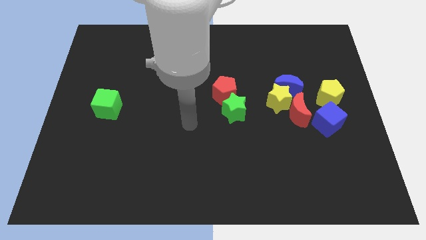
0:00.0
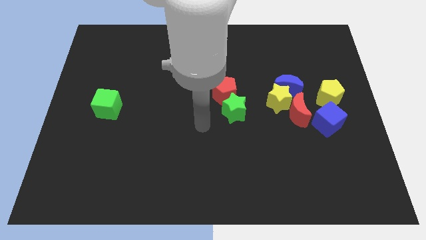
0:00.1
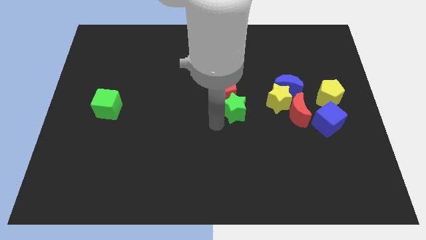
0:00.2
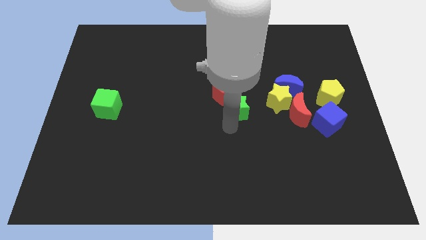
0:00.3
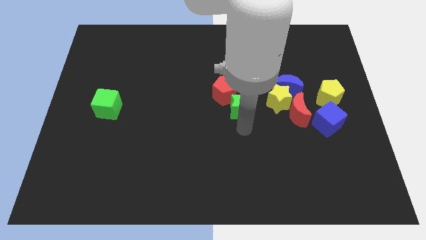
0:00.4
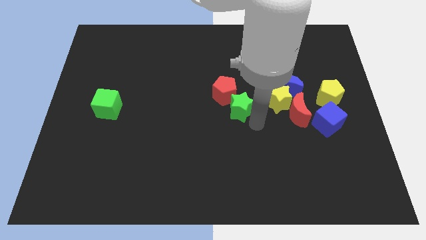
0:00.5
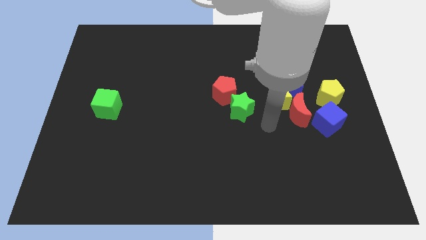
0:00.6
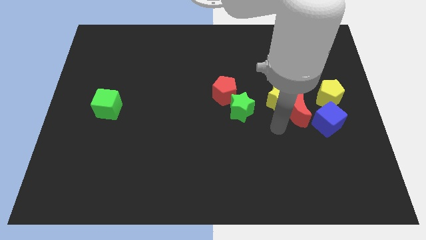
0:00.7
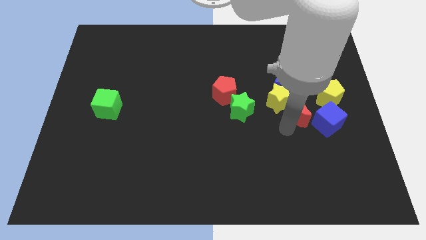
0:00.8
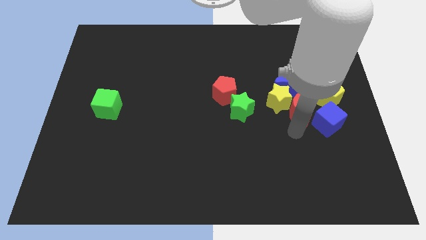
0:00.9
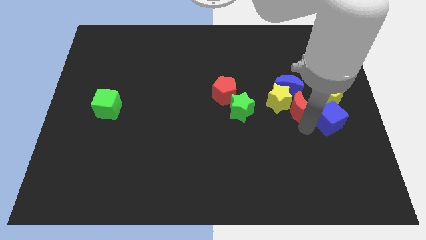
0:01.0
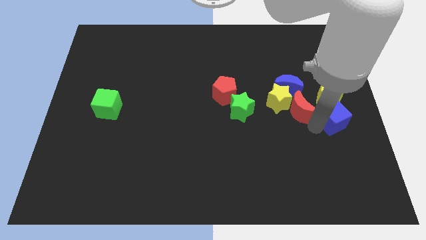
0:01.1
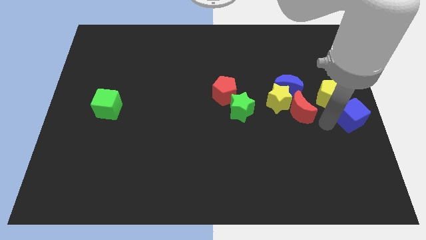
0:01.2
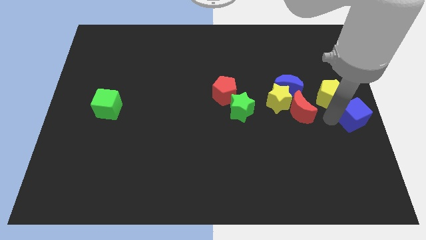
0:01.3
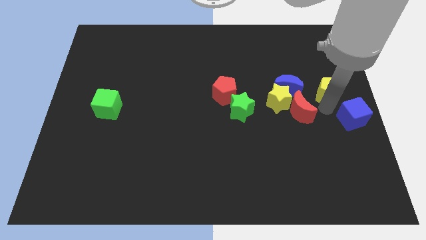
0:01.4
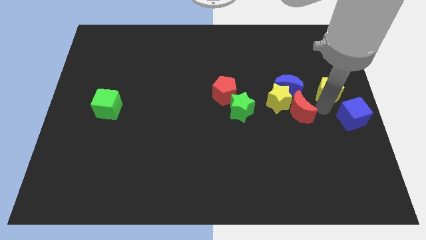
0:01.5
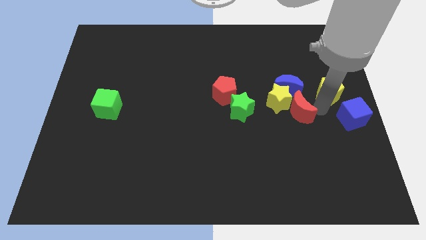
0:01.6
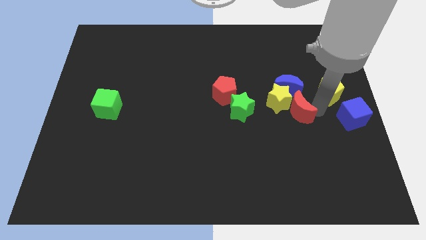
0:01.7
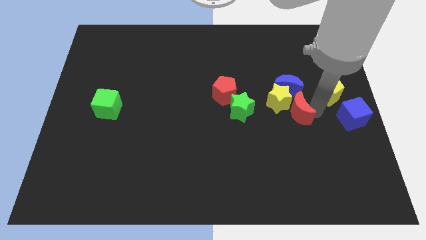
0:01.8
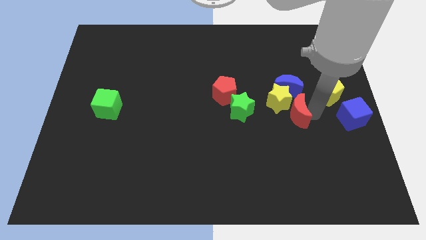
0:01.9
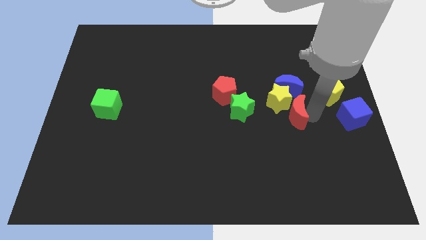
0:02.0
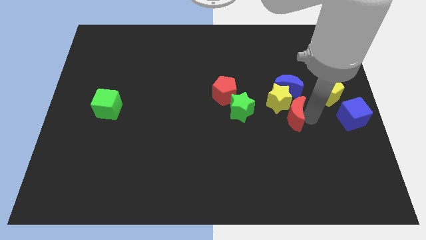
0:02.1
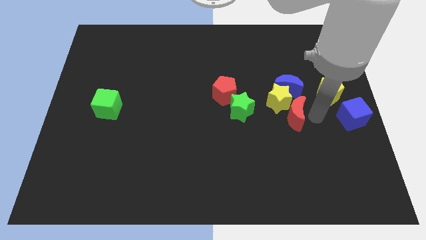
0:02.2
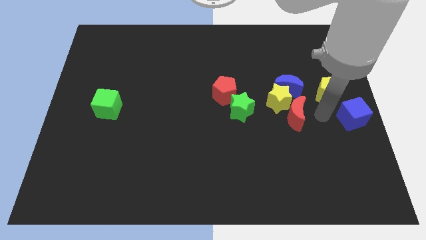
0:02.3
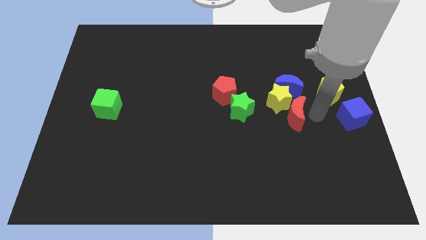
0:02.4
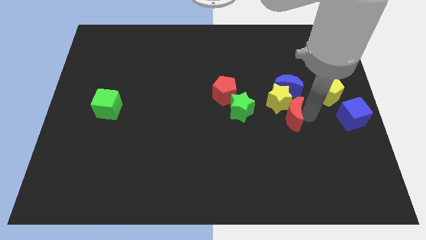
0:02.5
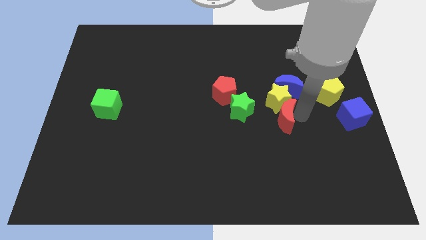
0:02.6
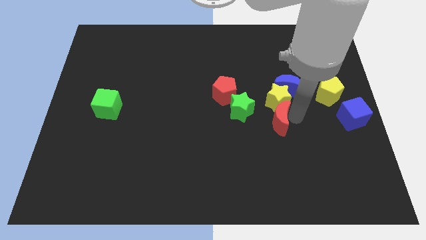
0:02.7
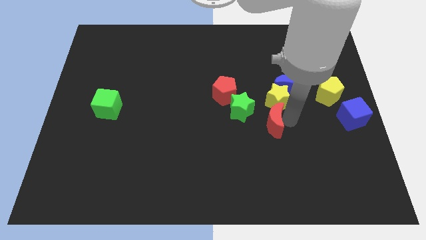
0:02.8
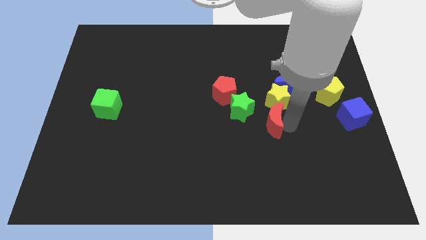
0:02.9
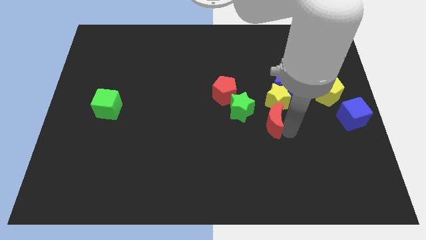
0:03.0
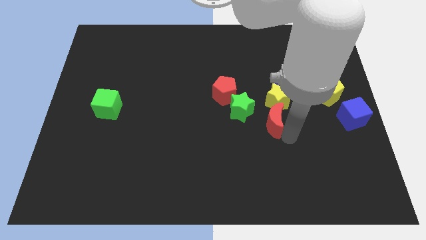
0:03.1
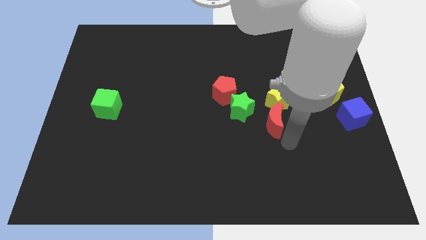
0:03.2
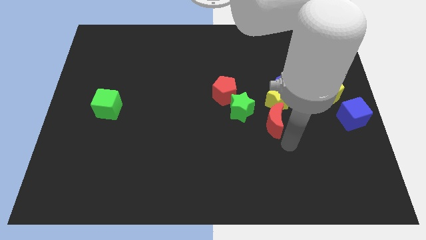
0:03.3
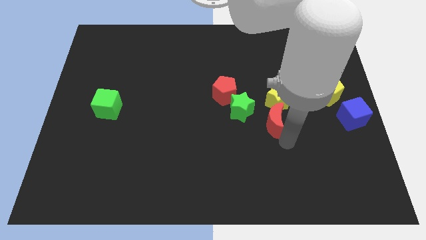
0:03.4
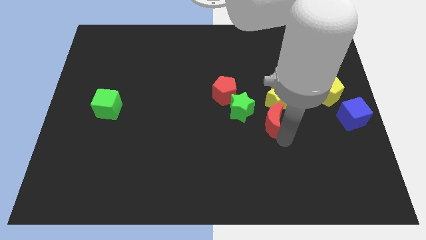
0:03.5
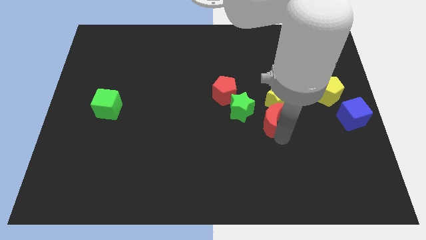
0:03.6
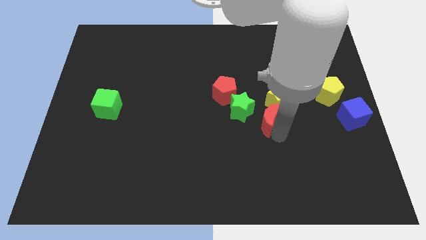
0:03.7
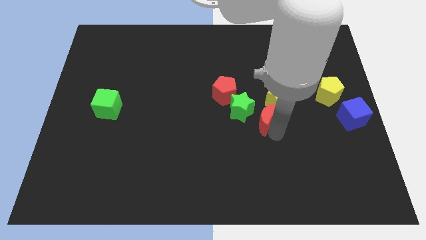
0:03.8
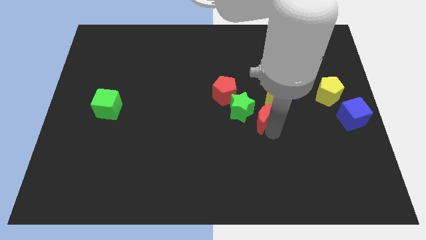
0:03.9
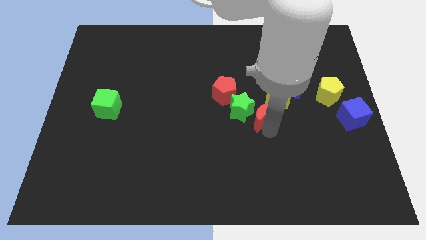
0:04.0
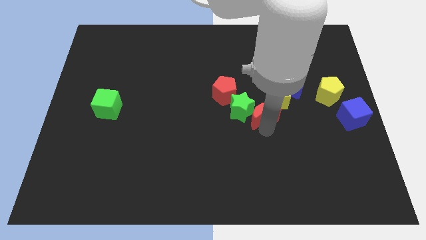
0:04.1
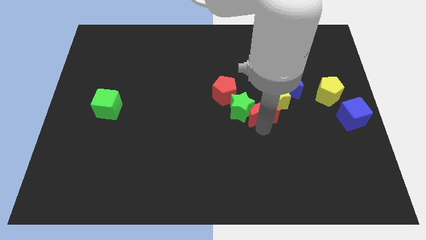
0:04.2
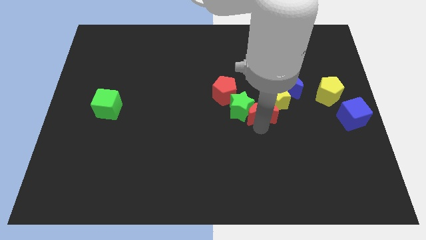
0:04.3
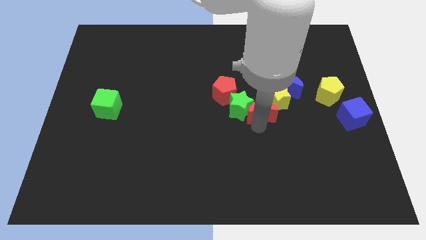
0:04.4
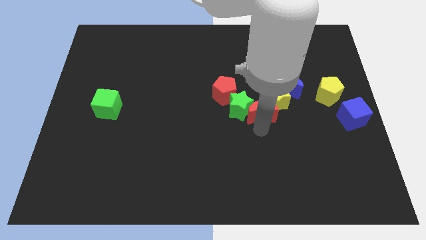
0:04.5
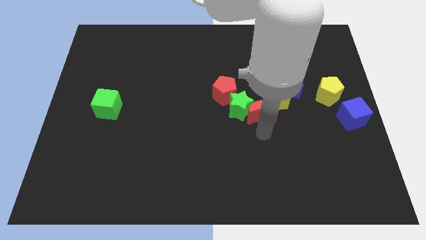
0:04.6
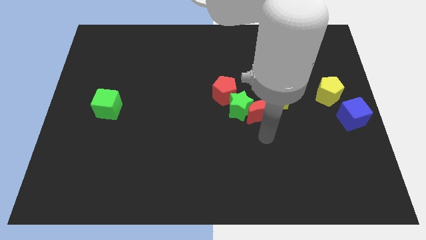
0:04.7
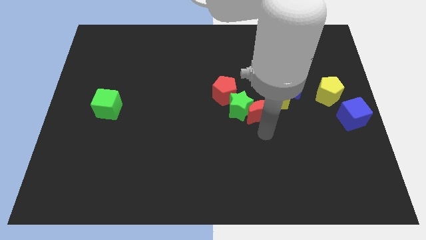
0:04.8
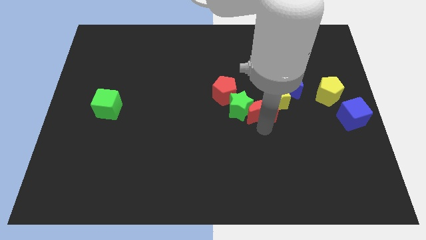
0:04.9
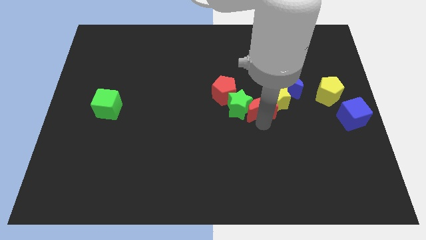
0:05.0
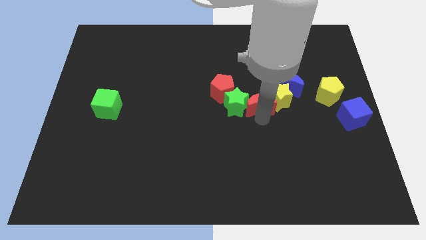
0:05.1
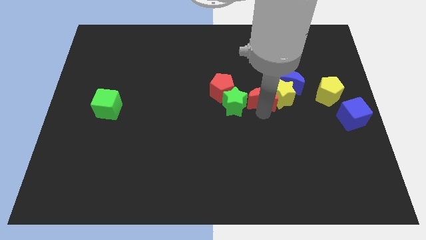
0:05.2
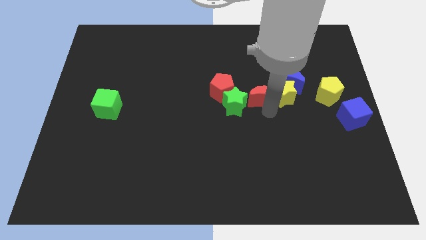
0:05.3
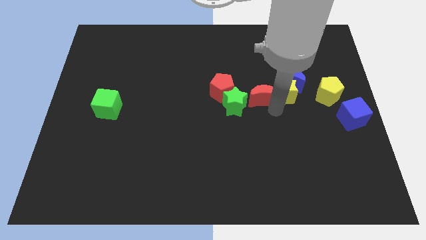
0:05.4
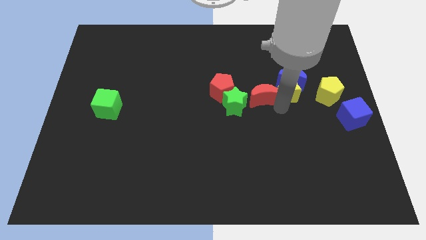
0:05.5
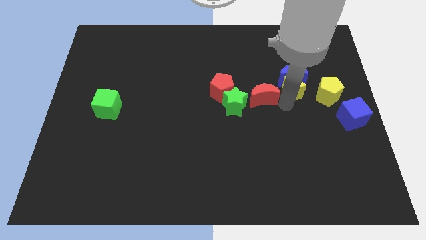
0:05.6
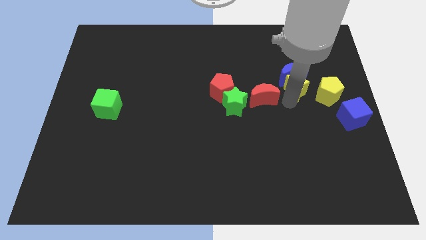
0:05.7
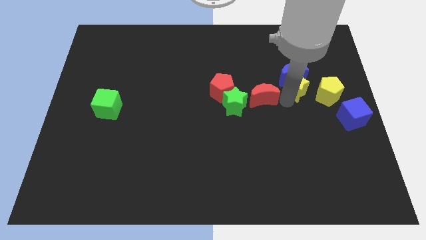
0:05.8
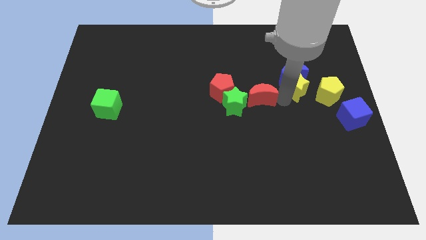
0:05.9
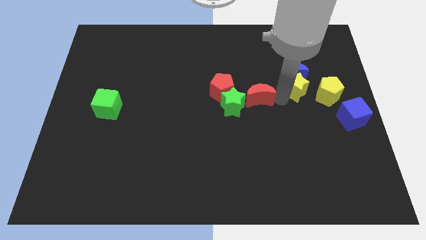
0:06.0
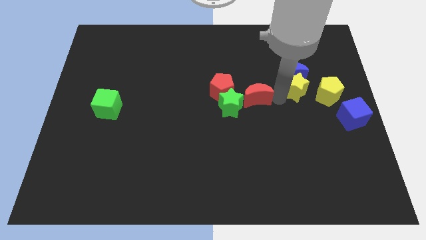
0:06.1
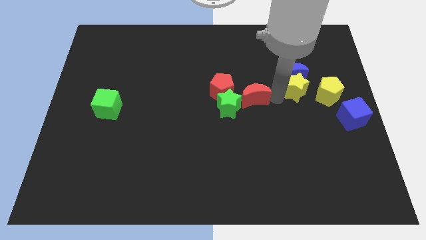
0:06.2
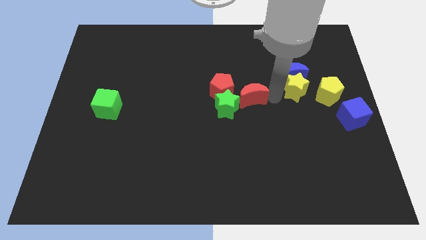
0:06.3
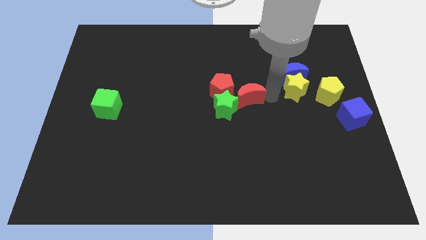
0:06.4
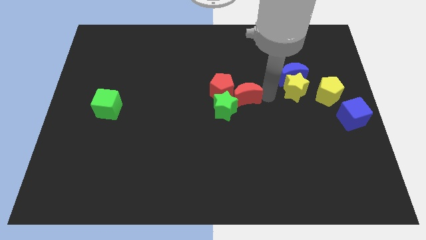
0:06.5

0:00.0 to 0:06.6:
move the red moon to the red pentagon

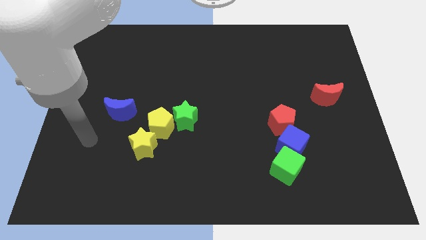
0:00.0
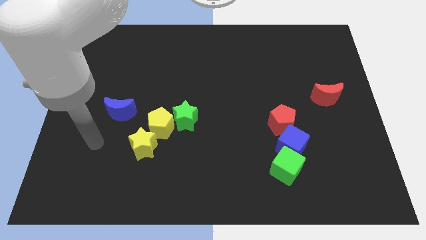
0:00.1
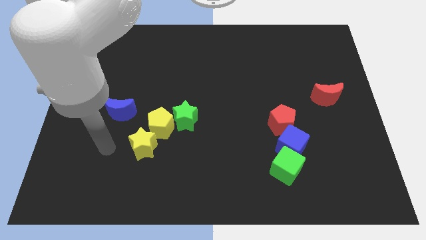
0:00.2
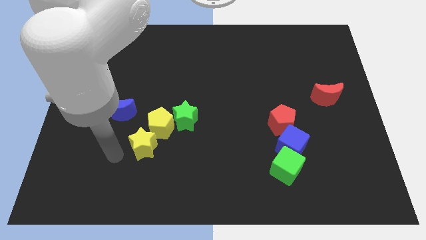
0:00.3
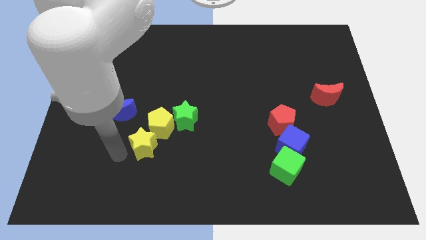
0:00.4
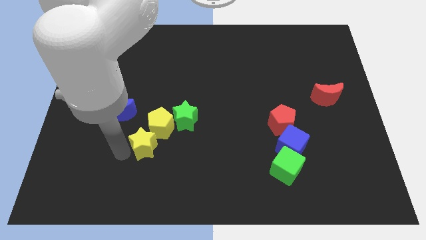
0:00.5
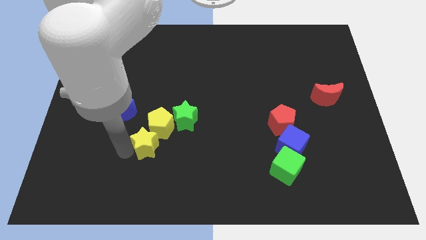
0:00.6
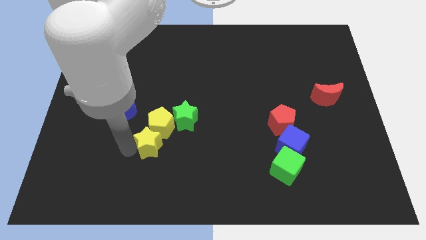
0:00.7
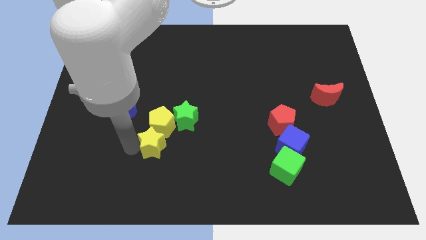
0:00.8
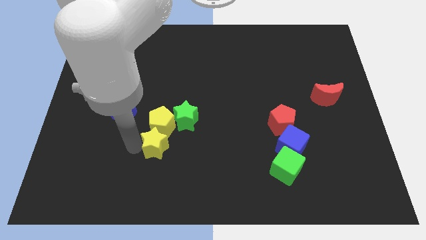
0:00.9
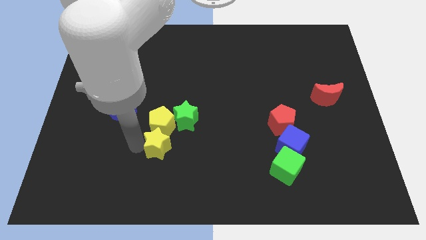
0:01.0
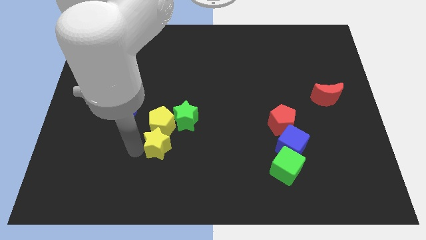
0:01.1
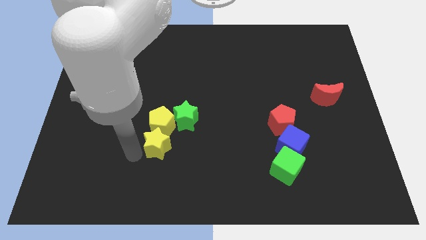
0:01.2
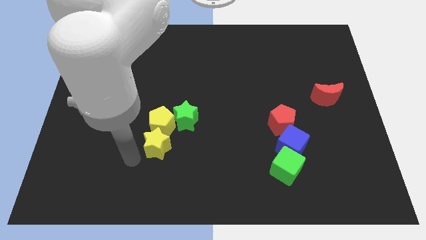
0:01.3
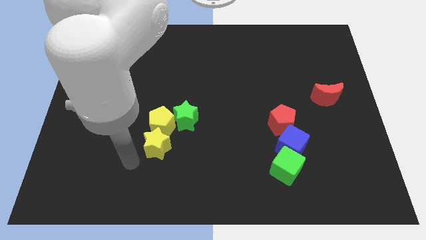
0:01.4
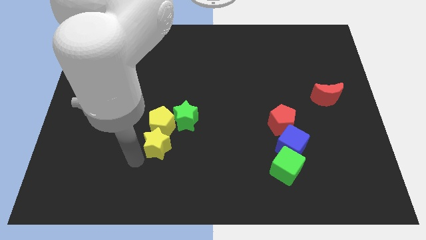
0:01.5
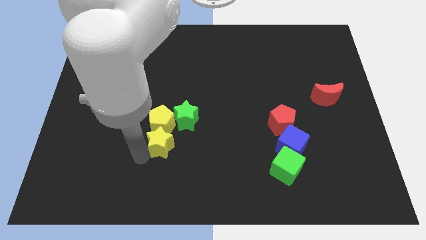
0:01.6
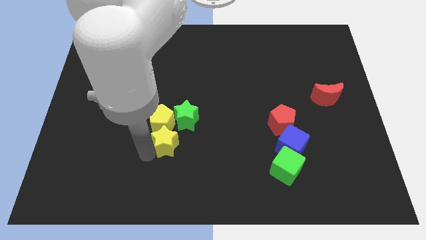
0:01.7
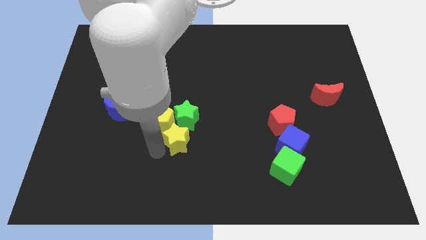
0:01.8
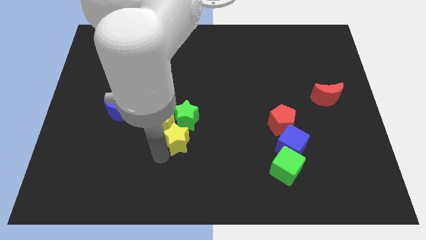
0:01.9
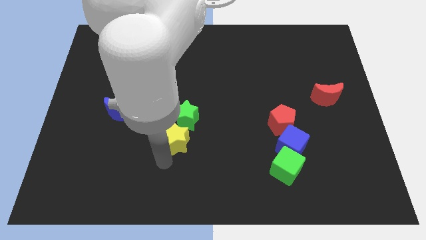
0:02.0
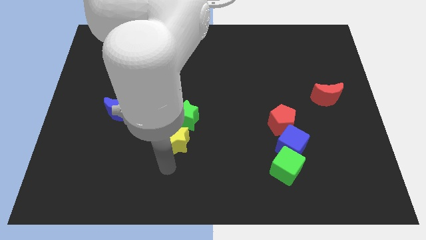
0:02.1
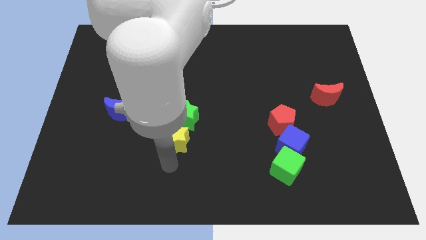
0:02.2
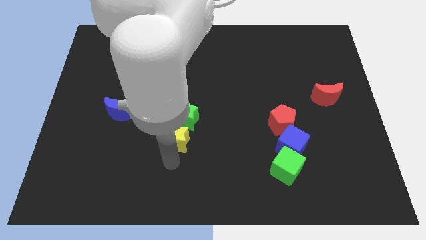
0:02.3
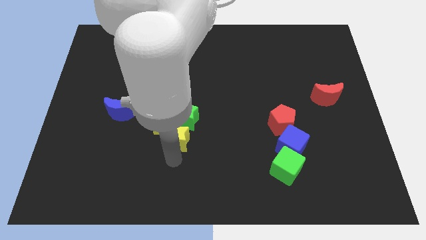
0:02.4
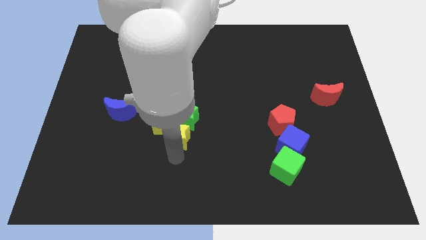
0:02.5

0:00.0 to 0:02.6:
move the yellow star close to the green star
